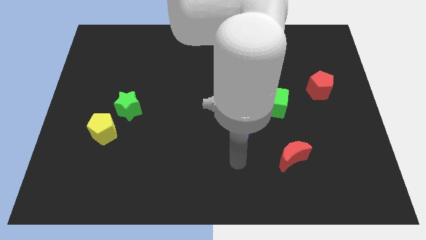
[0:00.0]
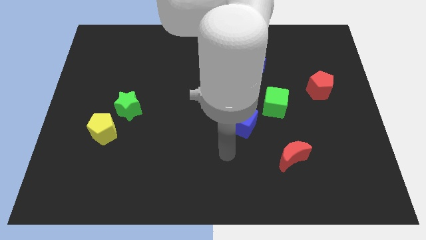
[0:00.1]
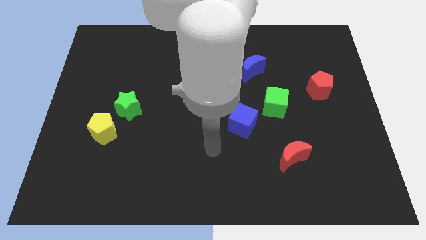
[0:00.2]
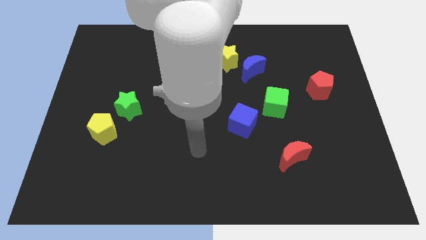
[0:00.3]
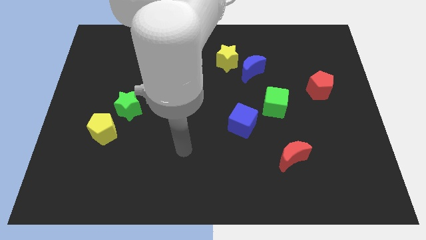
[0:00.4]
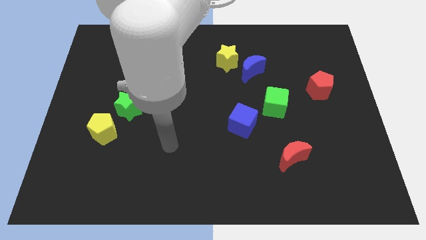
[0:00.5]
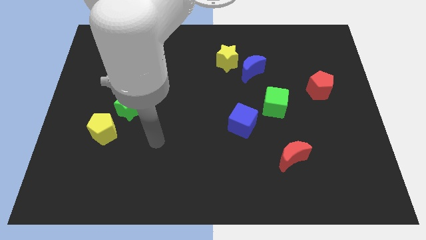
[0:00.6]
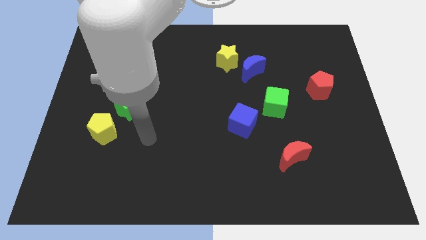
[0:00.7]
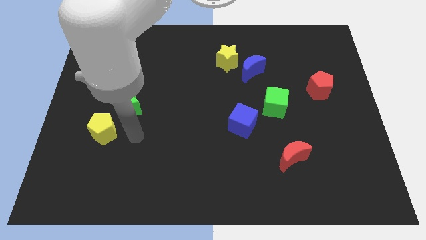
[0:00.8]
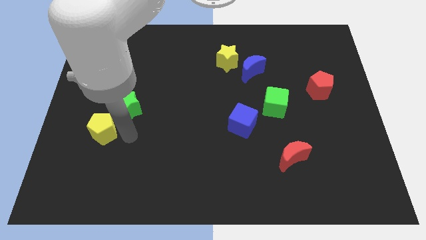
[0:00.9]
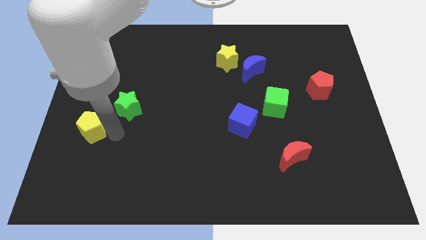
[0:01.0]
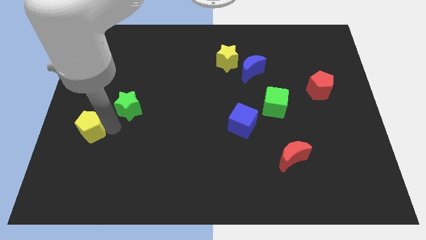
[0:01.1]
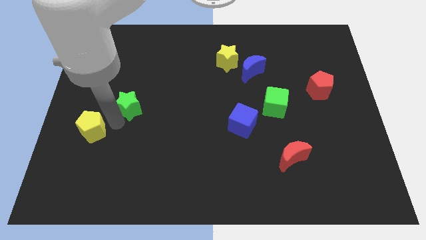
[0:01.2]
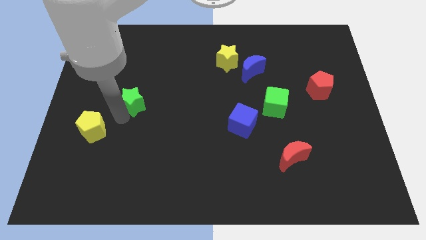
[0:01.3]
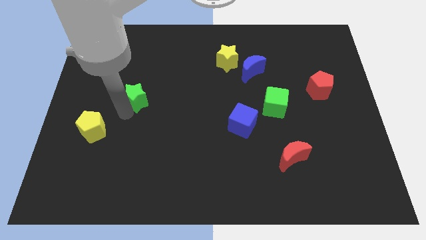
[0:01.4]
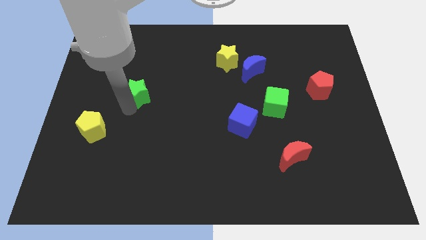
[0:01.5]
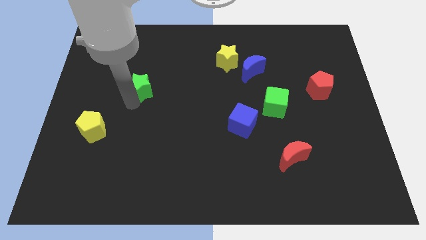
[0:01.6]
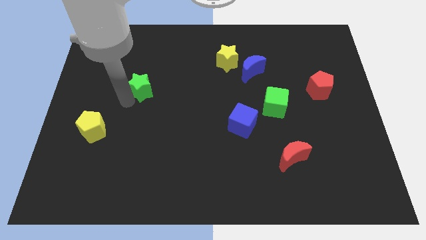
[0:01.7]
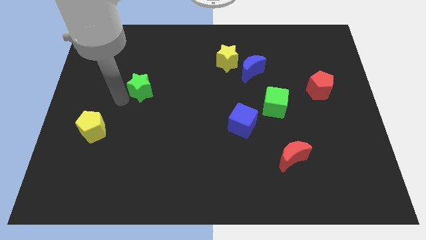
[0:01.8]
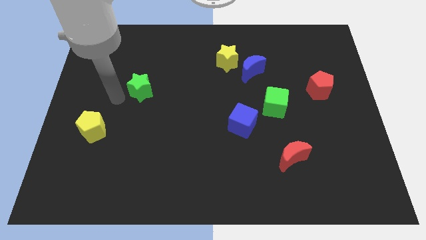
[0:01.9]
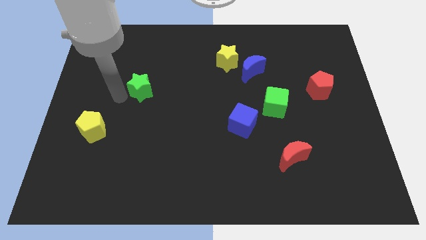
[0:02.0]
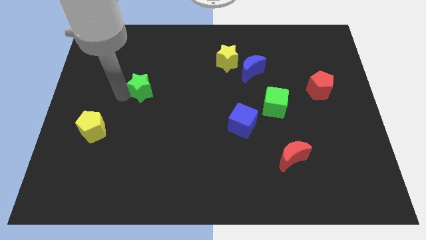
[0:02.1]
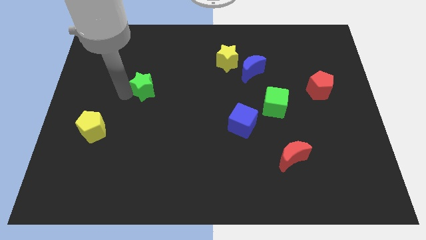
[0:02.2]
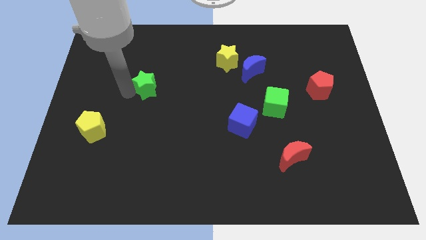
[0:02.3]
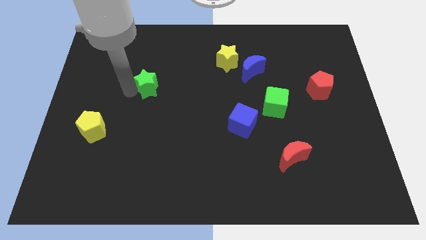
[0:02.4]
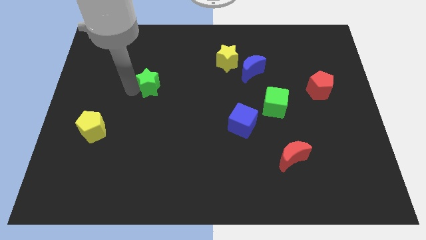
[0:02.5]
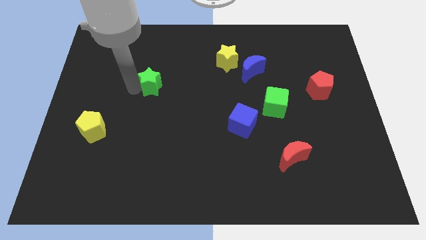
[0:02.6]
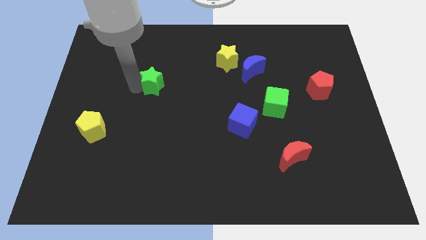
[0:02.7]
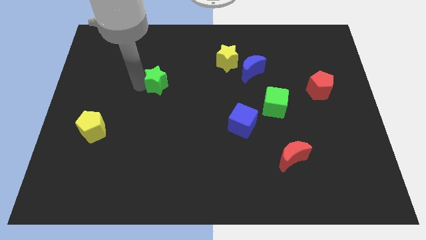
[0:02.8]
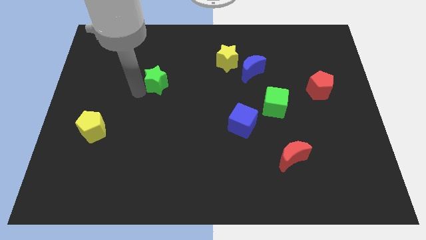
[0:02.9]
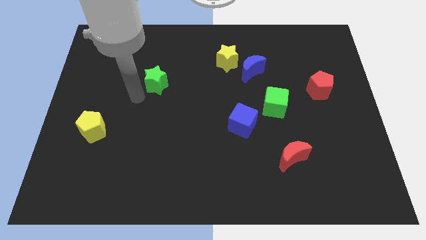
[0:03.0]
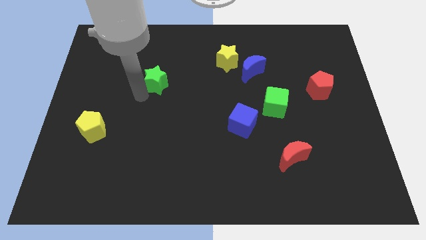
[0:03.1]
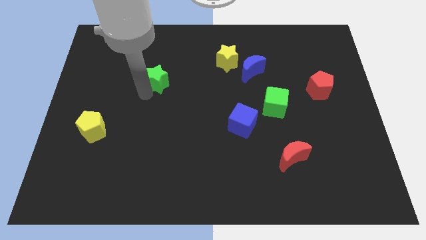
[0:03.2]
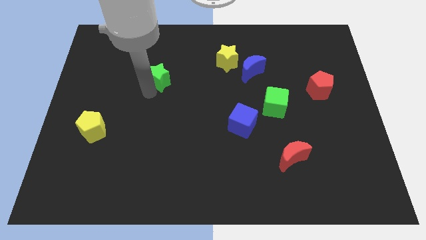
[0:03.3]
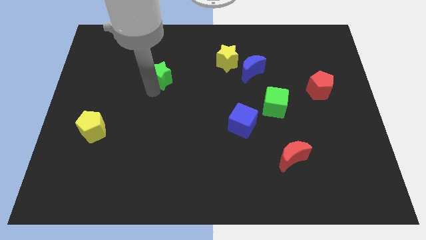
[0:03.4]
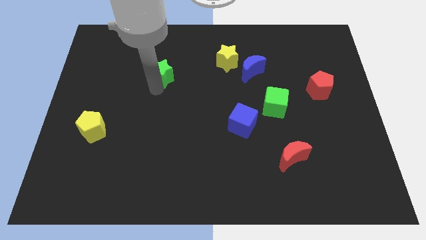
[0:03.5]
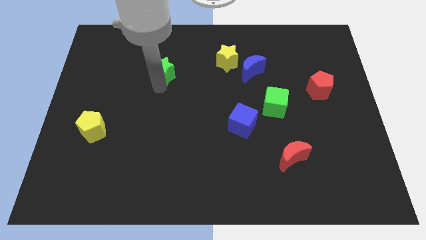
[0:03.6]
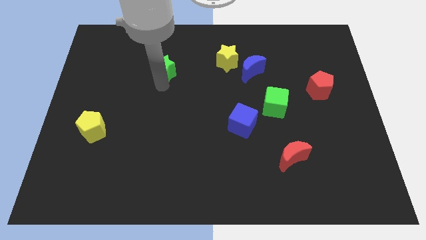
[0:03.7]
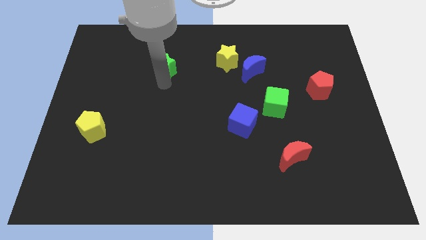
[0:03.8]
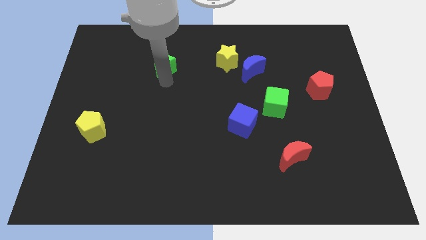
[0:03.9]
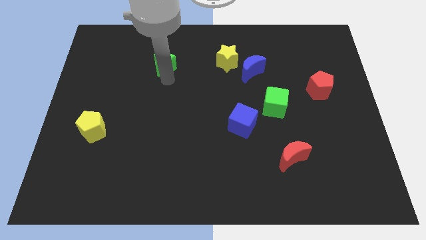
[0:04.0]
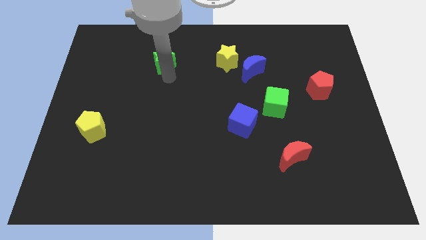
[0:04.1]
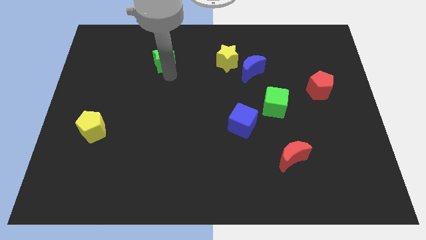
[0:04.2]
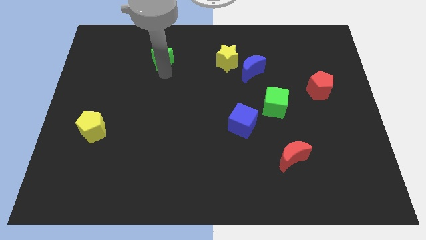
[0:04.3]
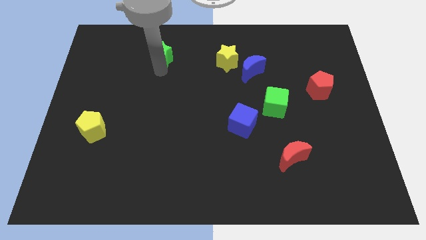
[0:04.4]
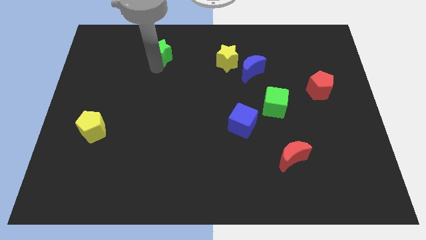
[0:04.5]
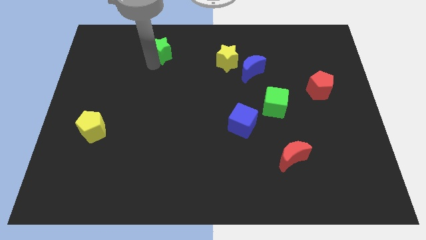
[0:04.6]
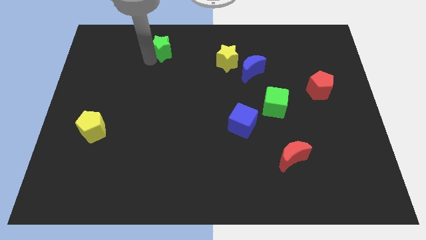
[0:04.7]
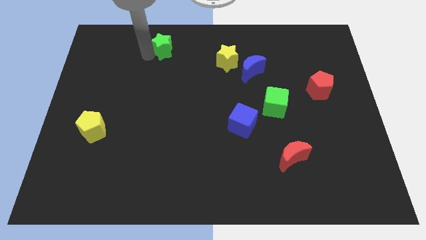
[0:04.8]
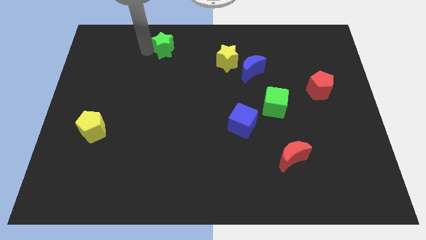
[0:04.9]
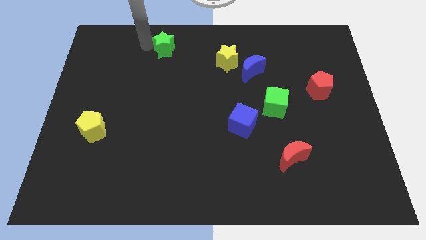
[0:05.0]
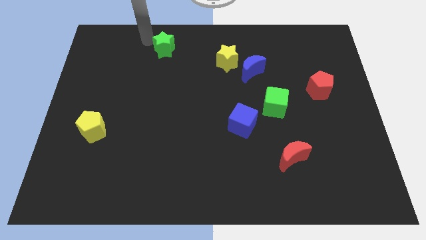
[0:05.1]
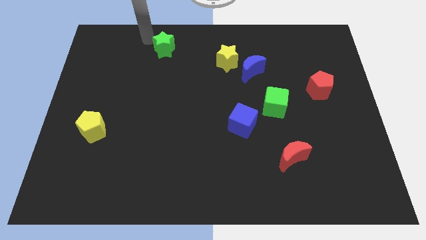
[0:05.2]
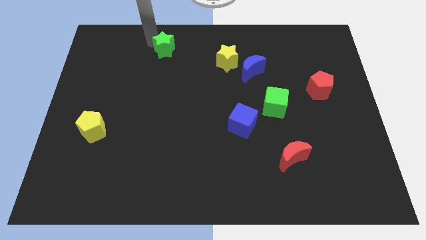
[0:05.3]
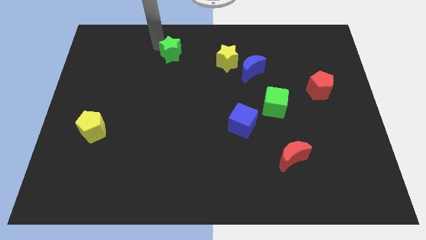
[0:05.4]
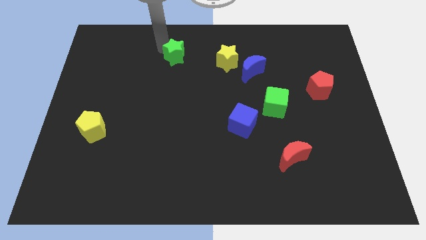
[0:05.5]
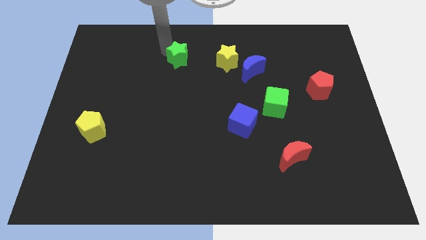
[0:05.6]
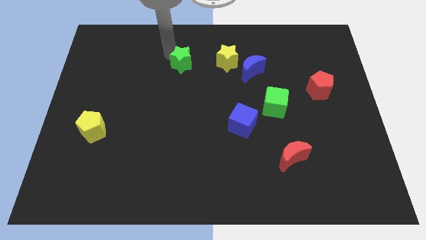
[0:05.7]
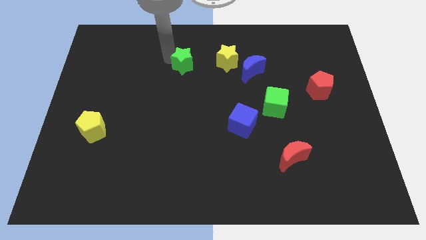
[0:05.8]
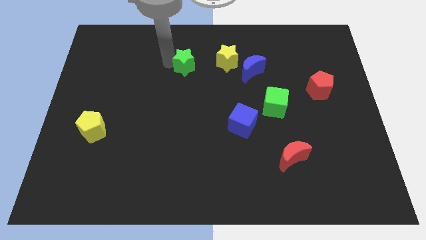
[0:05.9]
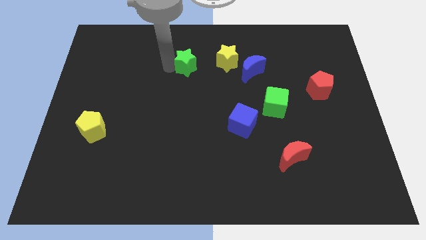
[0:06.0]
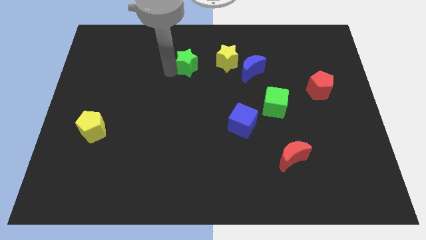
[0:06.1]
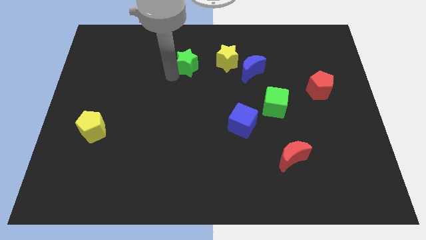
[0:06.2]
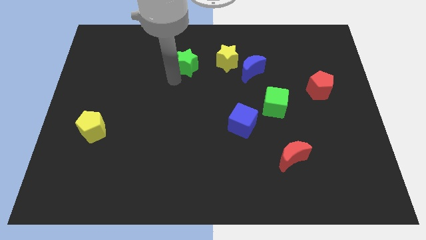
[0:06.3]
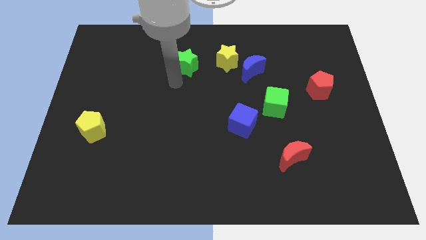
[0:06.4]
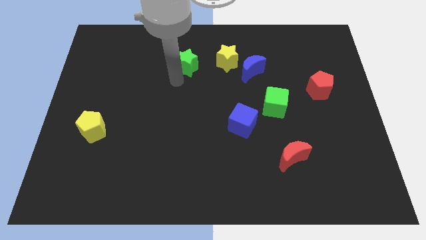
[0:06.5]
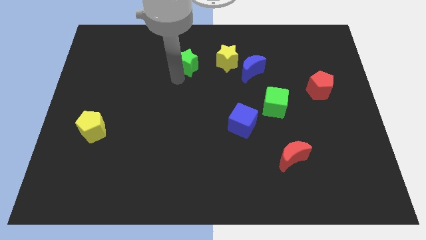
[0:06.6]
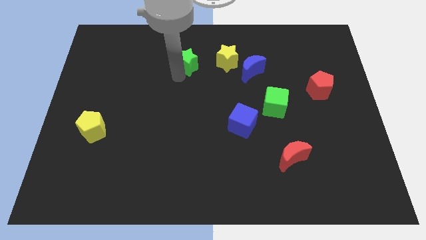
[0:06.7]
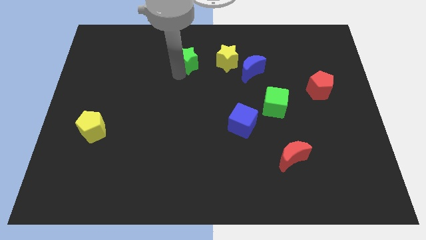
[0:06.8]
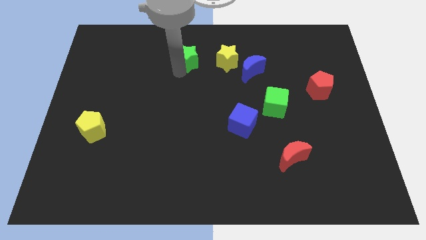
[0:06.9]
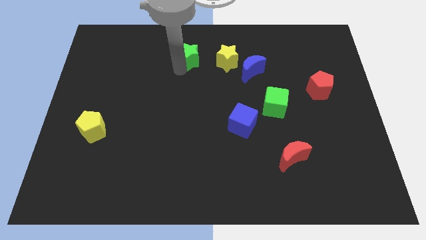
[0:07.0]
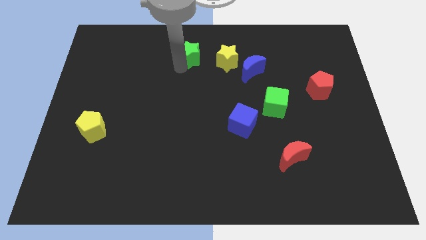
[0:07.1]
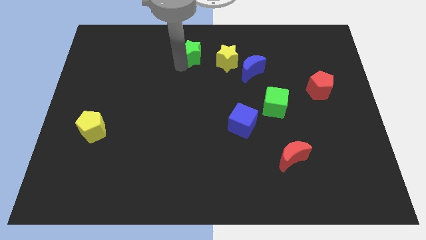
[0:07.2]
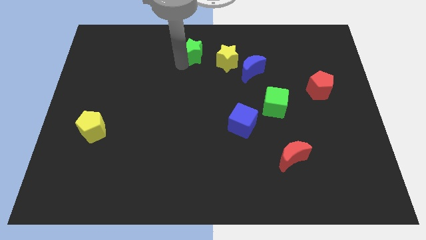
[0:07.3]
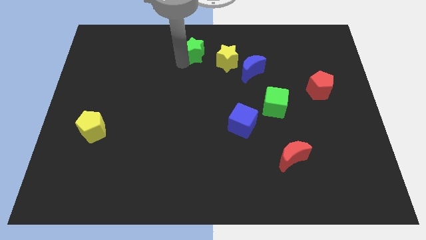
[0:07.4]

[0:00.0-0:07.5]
move the green star to the top side

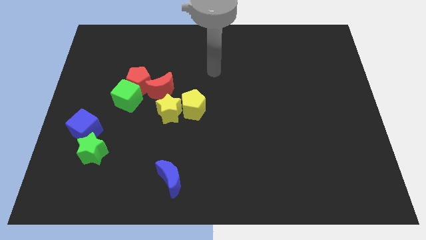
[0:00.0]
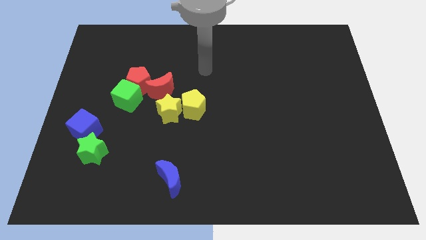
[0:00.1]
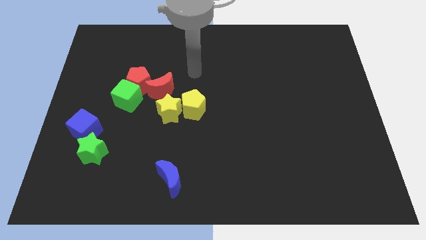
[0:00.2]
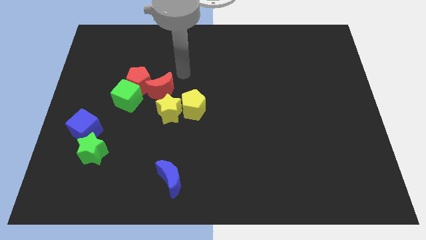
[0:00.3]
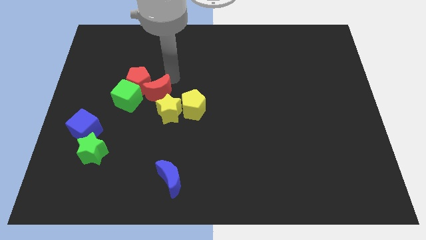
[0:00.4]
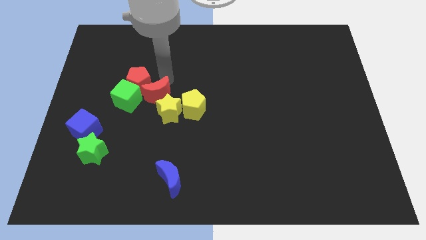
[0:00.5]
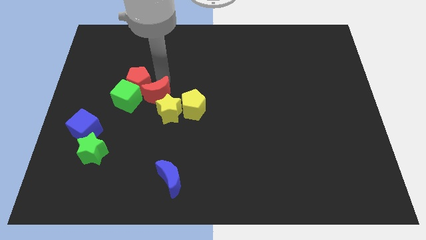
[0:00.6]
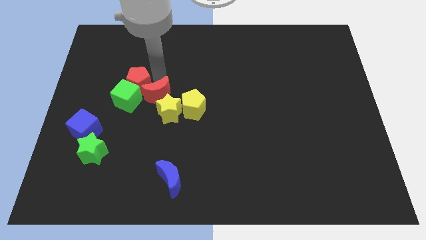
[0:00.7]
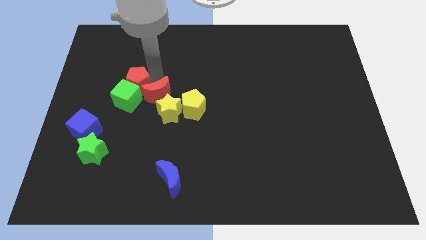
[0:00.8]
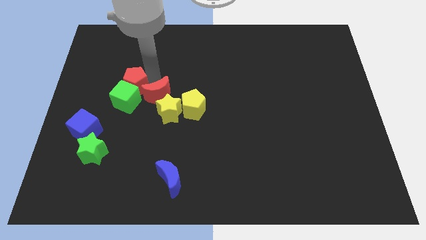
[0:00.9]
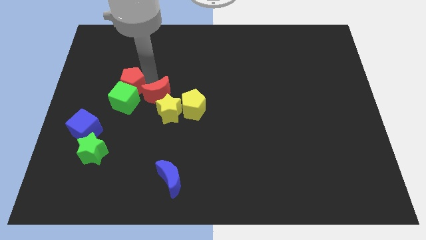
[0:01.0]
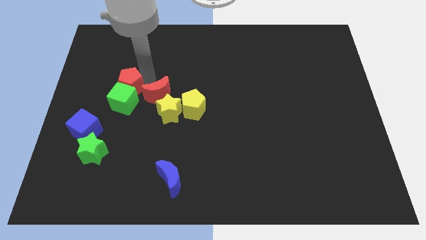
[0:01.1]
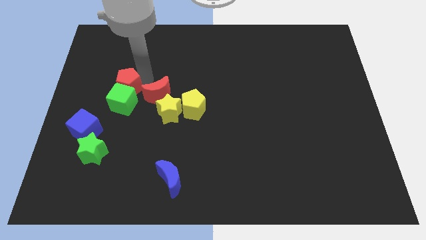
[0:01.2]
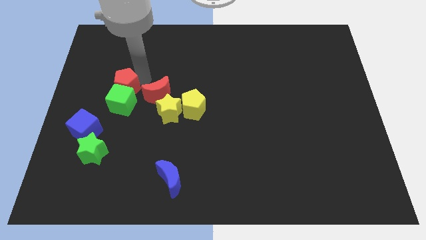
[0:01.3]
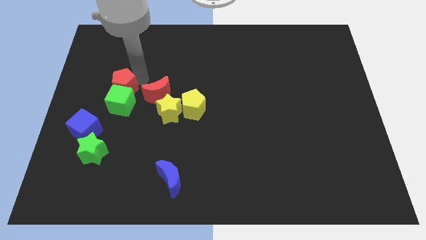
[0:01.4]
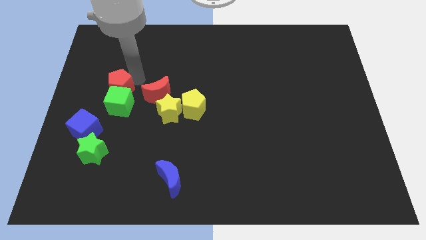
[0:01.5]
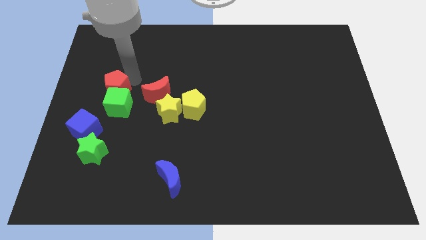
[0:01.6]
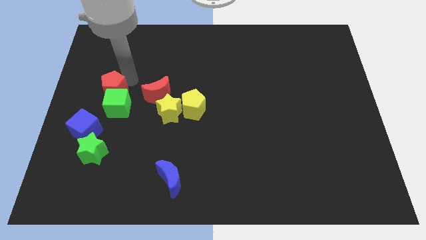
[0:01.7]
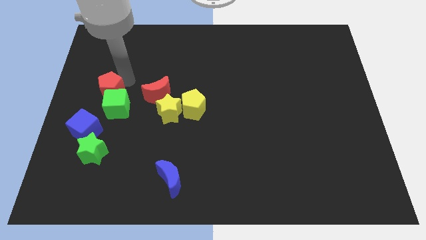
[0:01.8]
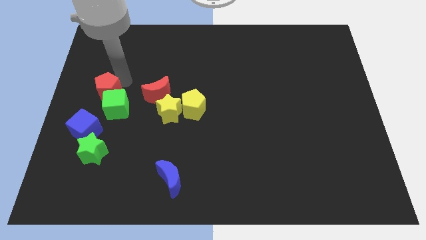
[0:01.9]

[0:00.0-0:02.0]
slide the red pentagon to the center left
